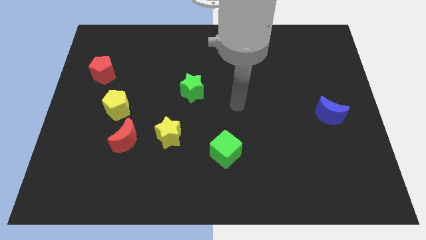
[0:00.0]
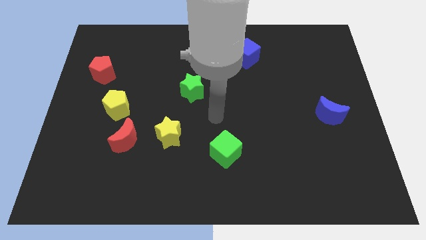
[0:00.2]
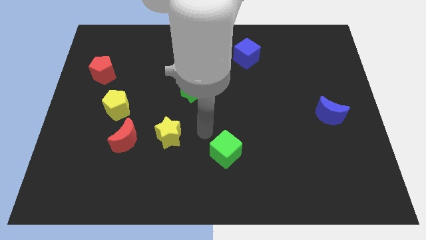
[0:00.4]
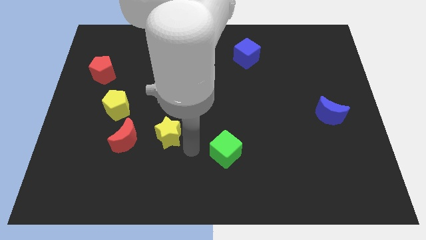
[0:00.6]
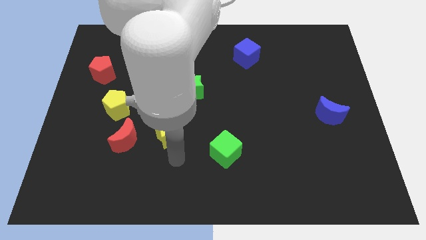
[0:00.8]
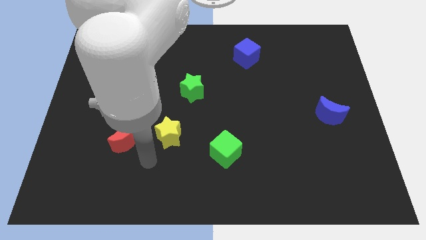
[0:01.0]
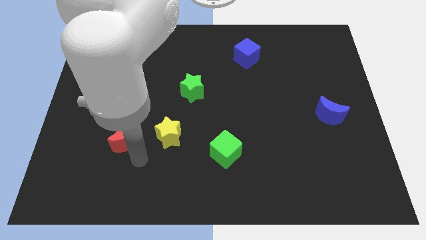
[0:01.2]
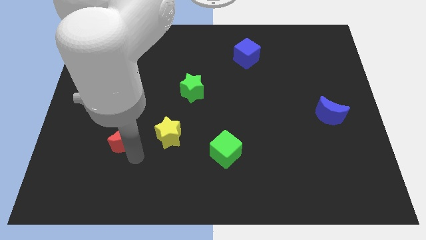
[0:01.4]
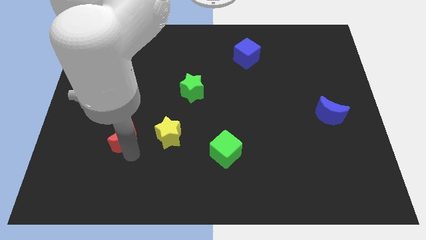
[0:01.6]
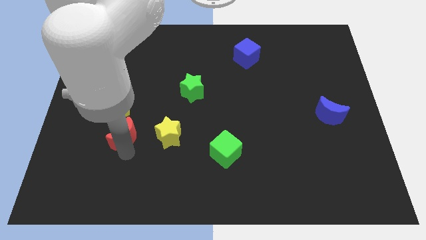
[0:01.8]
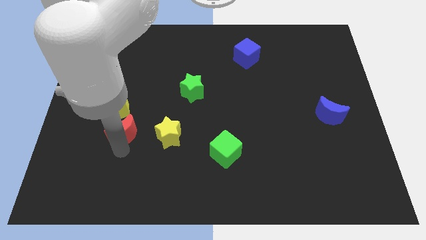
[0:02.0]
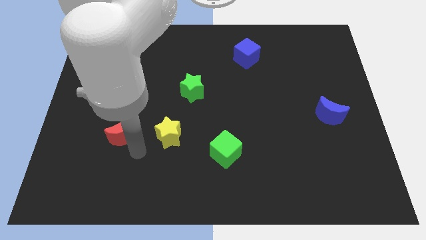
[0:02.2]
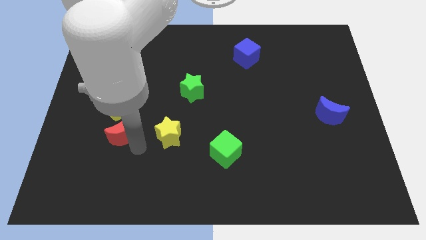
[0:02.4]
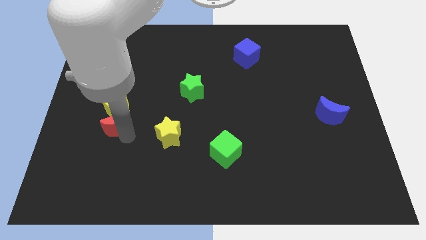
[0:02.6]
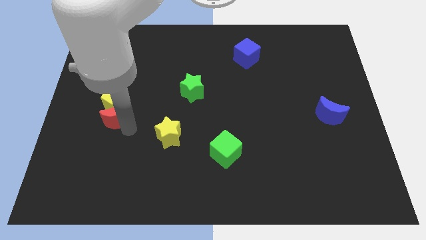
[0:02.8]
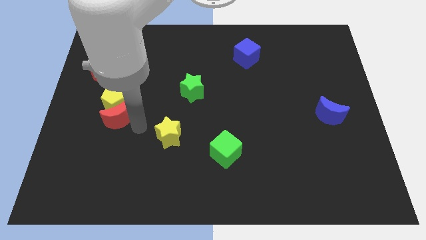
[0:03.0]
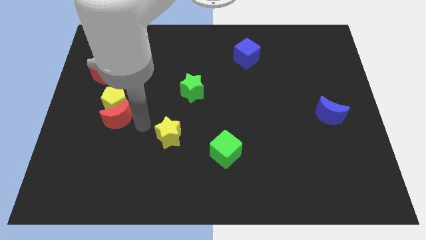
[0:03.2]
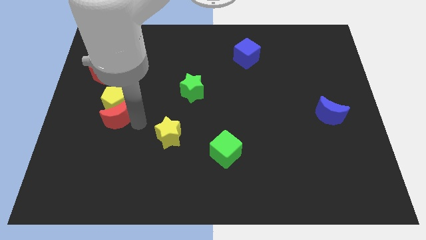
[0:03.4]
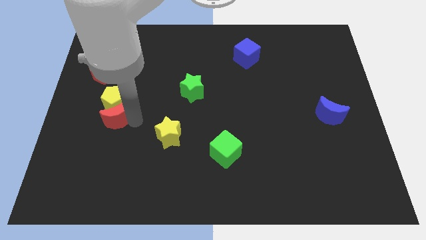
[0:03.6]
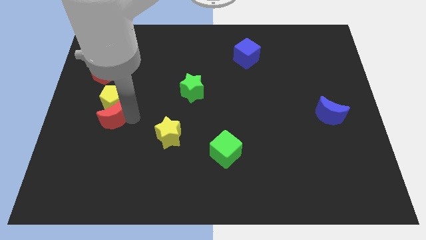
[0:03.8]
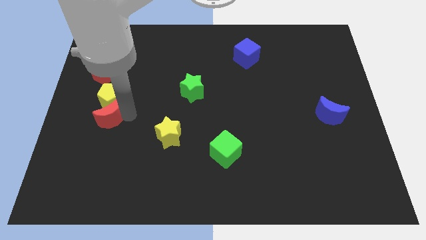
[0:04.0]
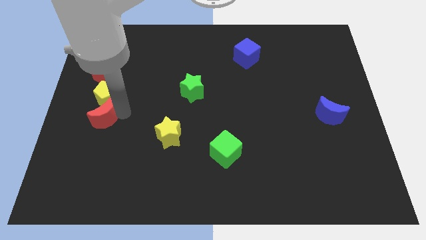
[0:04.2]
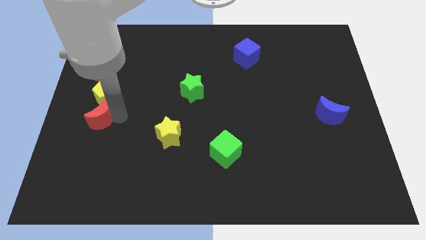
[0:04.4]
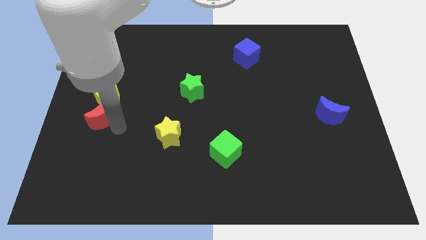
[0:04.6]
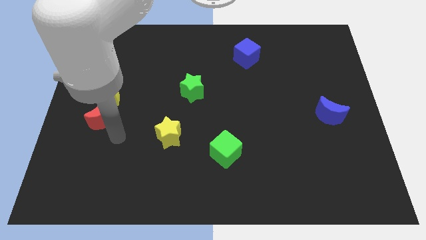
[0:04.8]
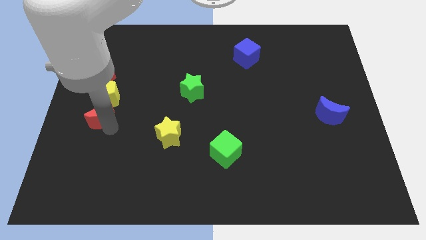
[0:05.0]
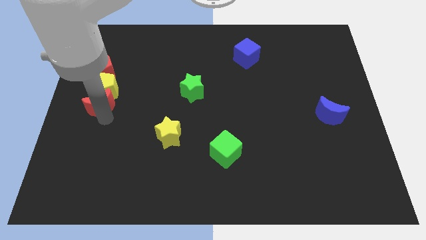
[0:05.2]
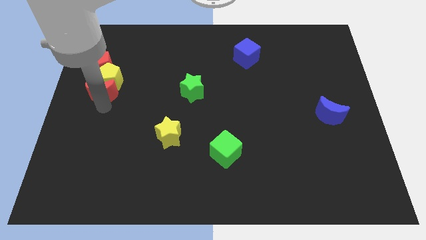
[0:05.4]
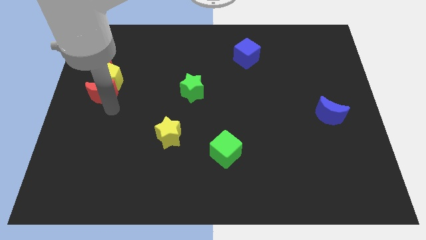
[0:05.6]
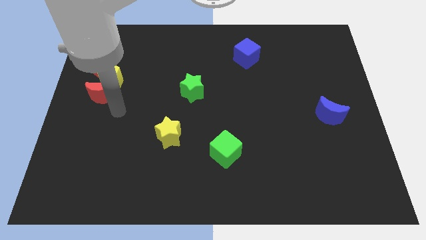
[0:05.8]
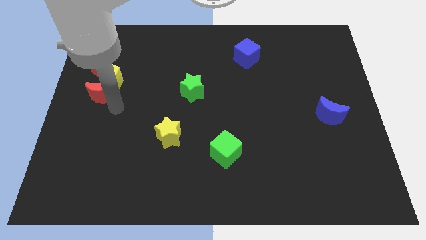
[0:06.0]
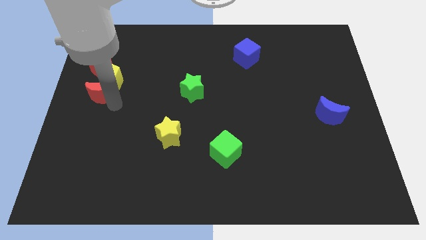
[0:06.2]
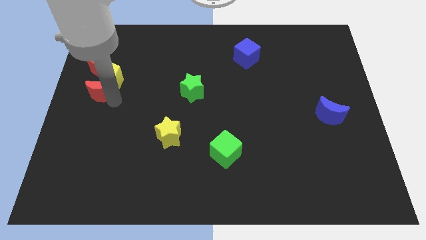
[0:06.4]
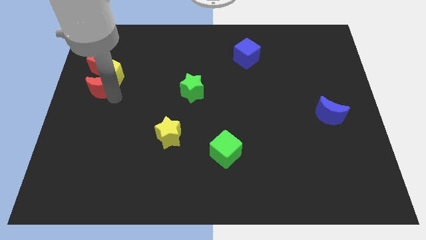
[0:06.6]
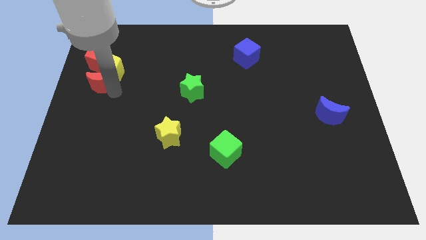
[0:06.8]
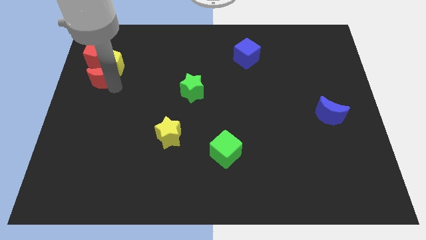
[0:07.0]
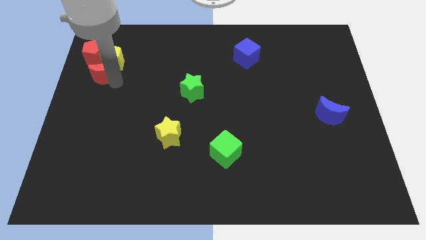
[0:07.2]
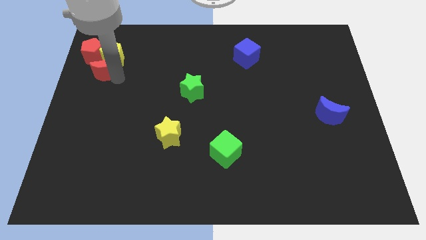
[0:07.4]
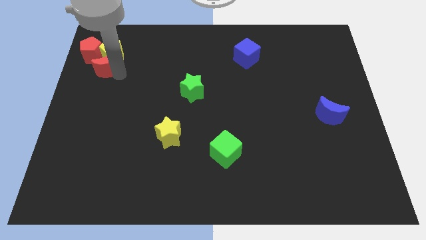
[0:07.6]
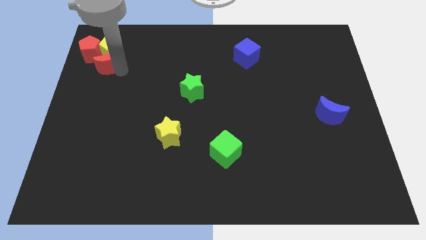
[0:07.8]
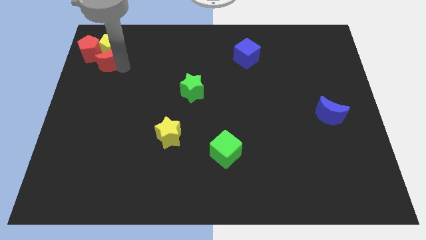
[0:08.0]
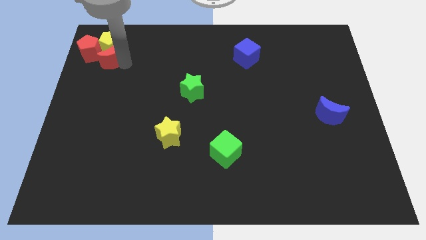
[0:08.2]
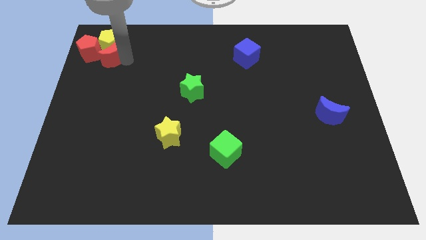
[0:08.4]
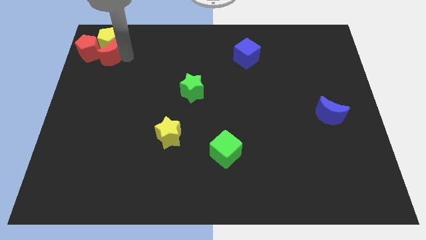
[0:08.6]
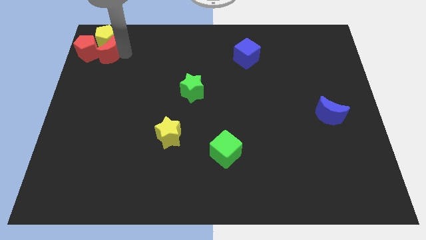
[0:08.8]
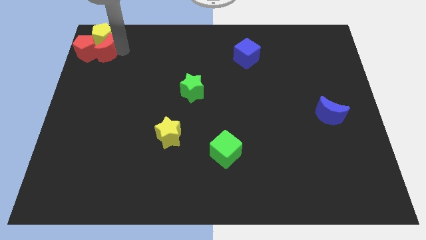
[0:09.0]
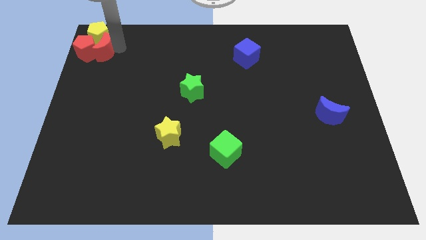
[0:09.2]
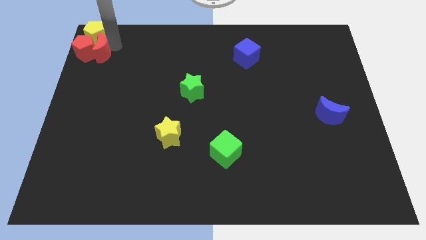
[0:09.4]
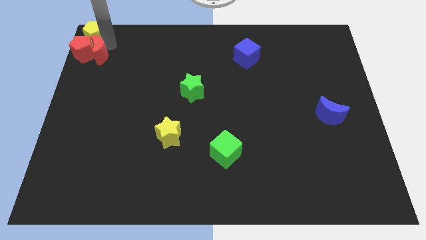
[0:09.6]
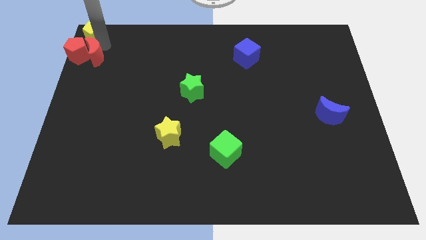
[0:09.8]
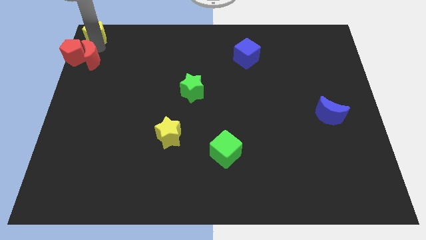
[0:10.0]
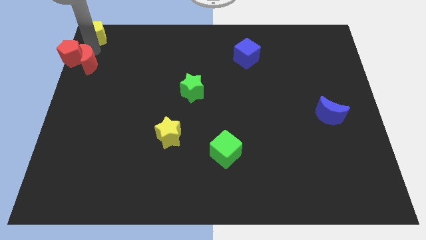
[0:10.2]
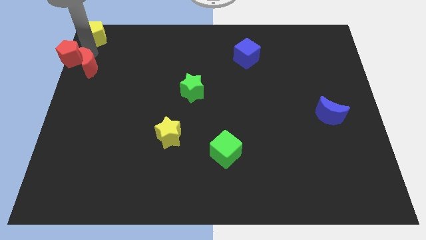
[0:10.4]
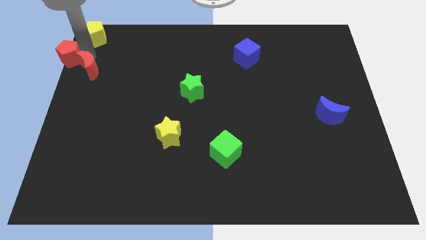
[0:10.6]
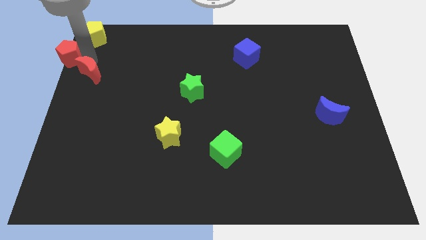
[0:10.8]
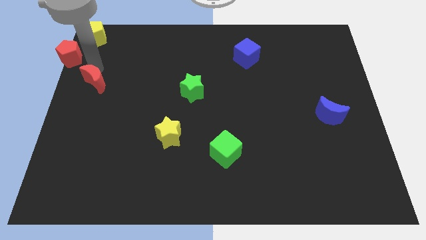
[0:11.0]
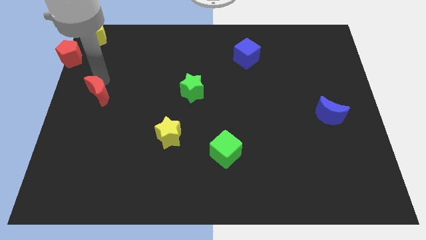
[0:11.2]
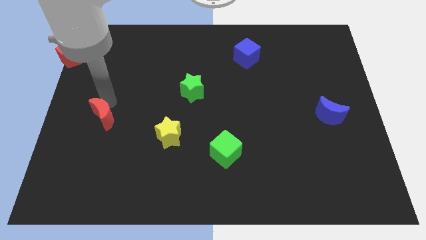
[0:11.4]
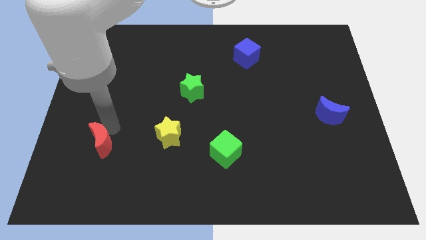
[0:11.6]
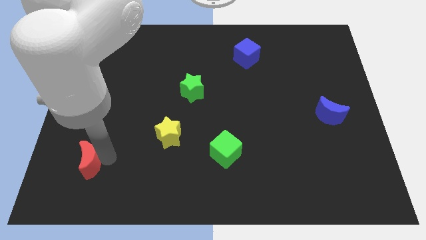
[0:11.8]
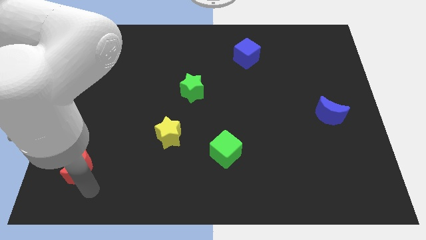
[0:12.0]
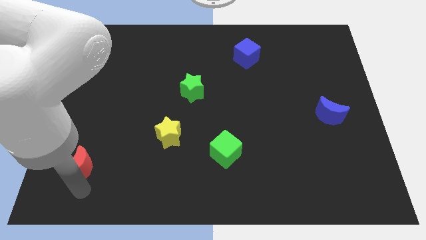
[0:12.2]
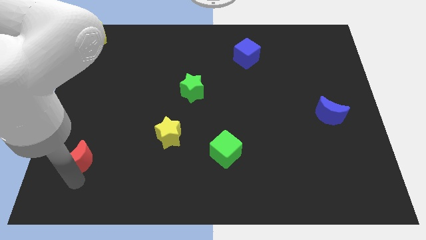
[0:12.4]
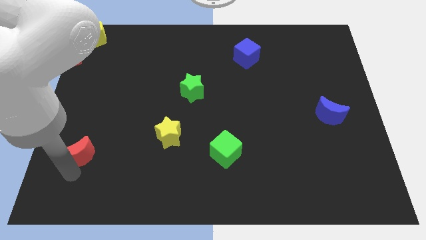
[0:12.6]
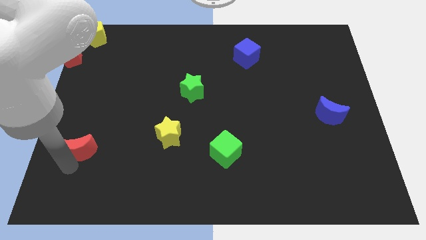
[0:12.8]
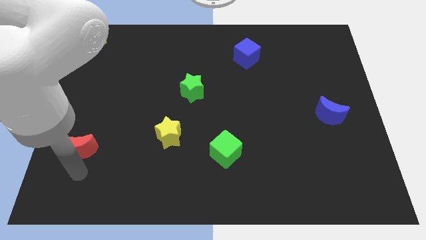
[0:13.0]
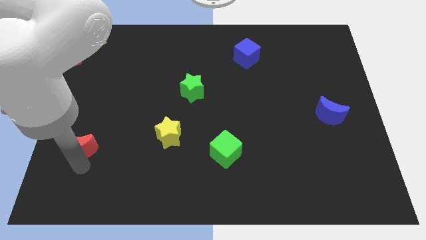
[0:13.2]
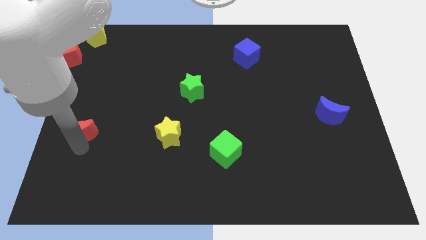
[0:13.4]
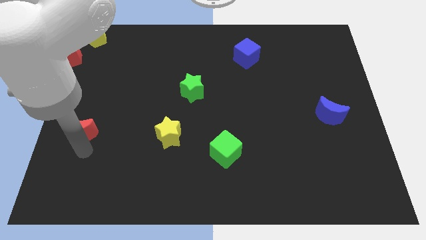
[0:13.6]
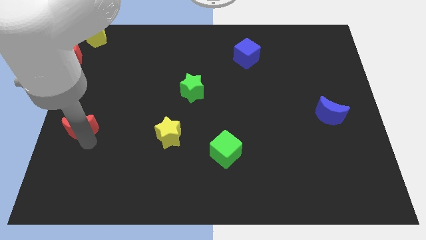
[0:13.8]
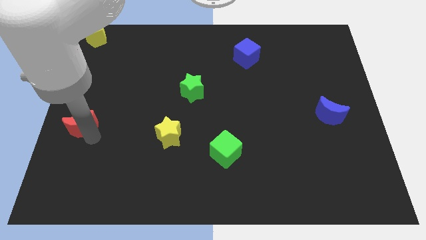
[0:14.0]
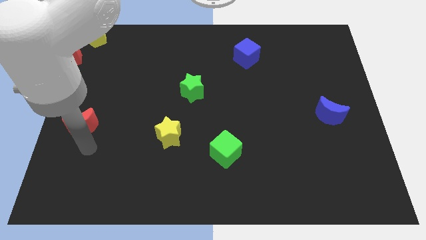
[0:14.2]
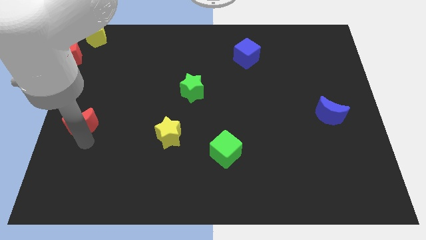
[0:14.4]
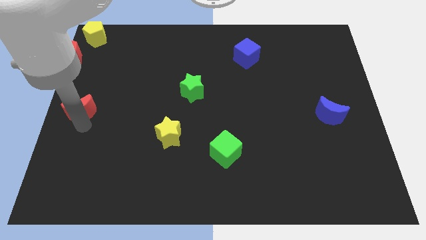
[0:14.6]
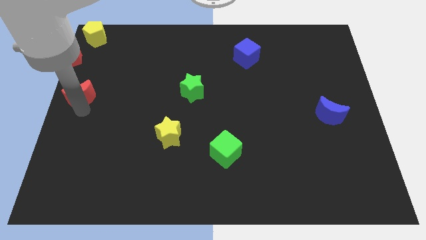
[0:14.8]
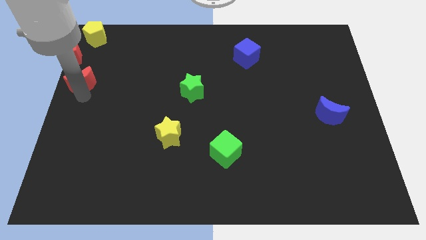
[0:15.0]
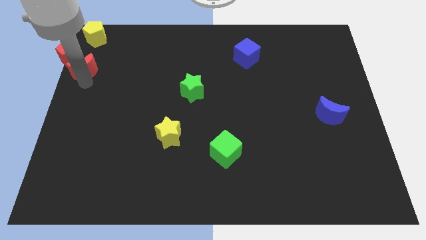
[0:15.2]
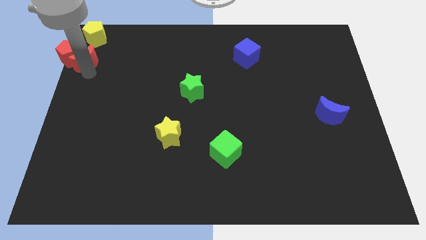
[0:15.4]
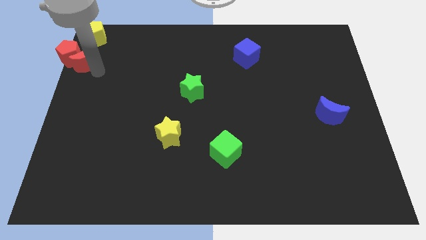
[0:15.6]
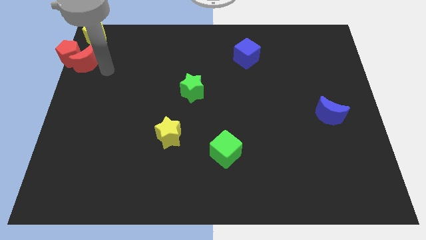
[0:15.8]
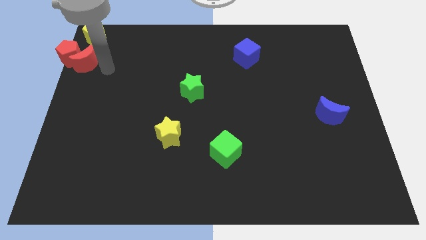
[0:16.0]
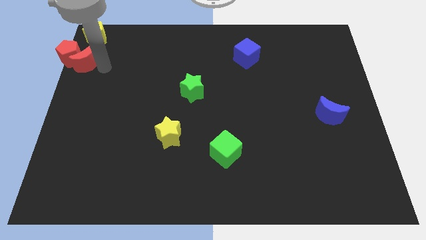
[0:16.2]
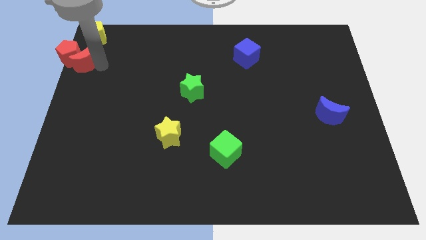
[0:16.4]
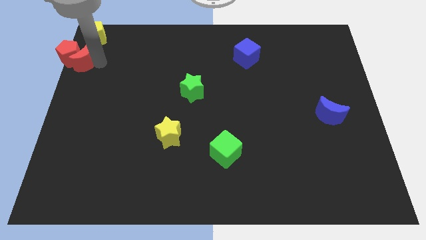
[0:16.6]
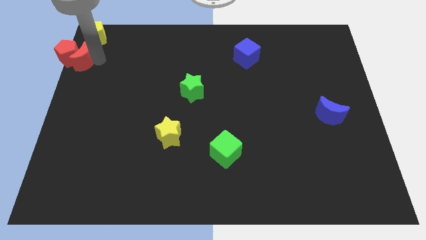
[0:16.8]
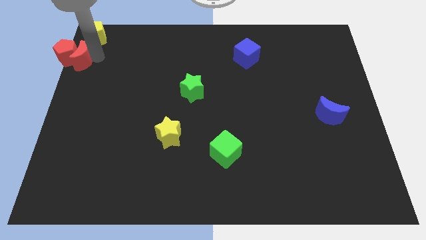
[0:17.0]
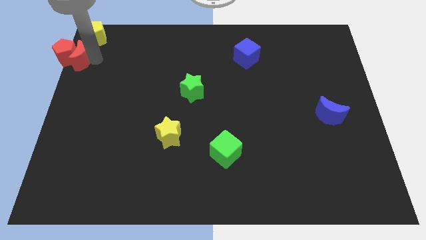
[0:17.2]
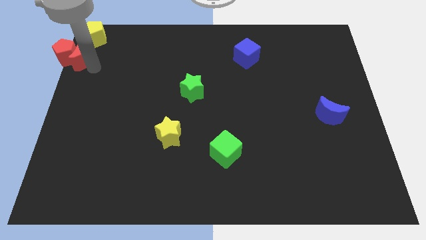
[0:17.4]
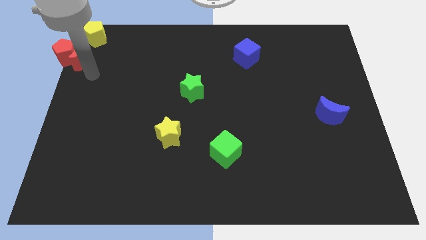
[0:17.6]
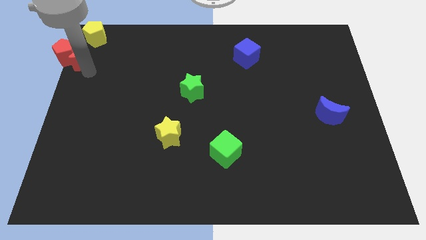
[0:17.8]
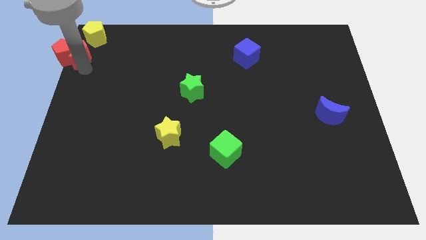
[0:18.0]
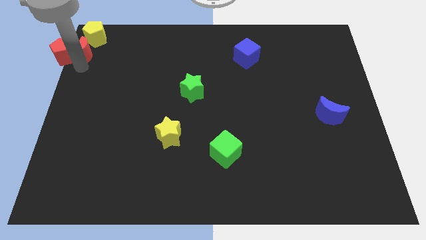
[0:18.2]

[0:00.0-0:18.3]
put the red moon to the top left
